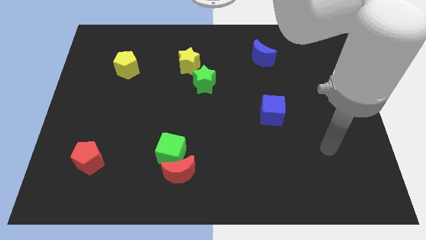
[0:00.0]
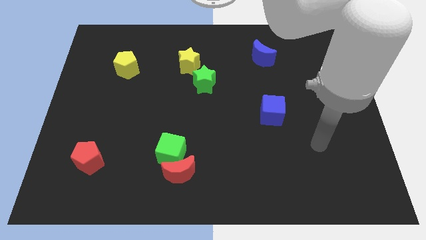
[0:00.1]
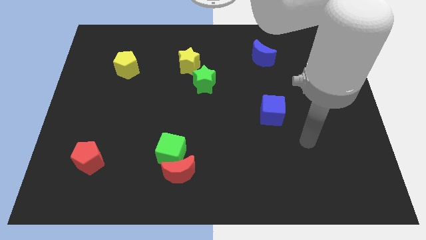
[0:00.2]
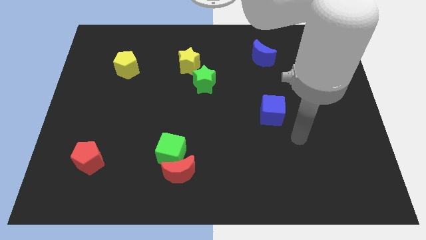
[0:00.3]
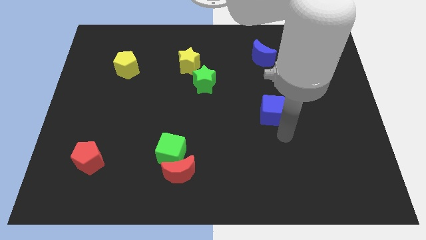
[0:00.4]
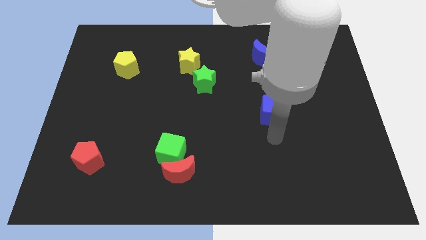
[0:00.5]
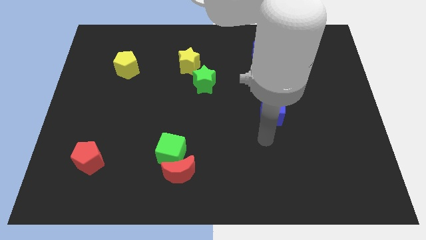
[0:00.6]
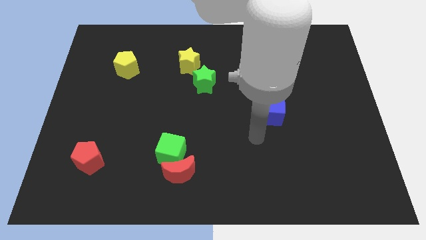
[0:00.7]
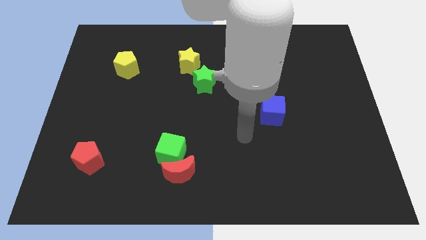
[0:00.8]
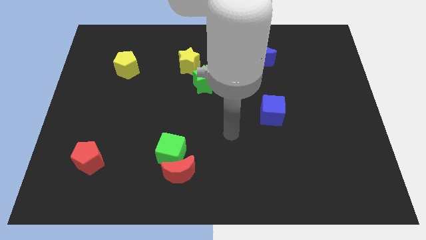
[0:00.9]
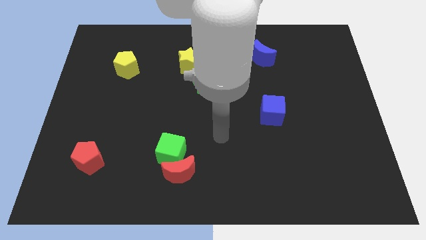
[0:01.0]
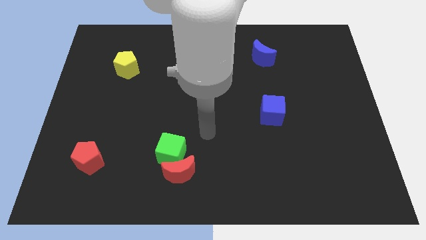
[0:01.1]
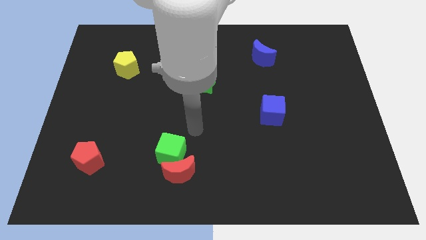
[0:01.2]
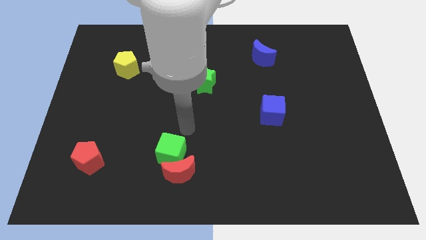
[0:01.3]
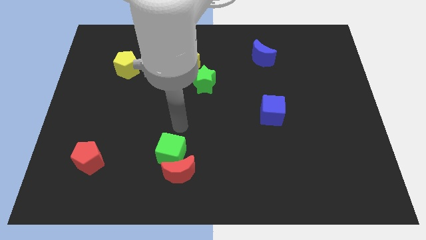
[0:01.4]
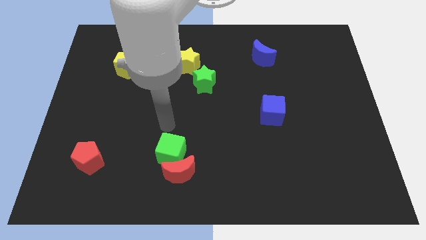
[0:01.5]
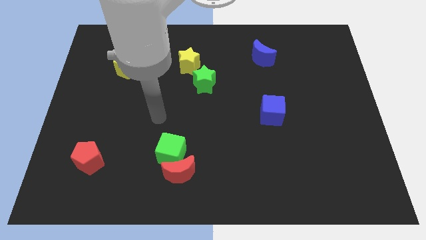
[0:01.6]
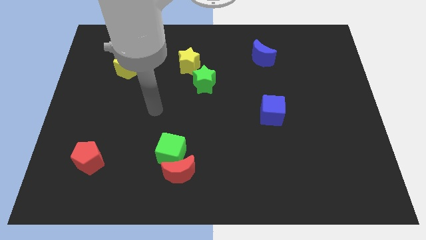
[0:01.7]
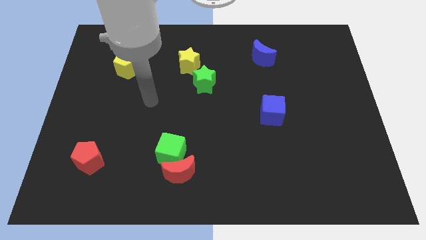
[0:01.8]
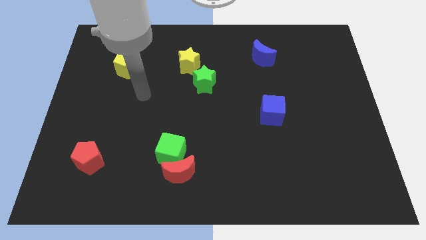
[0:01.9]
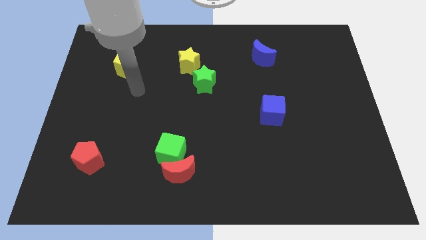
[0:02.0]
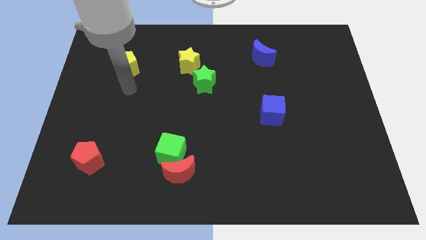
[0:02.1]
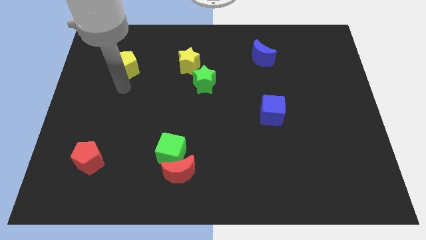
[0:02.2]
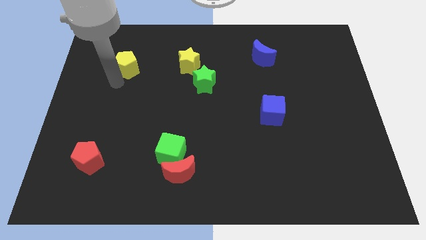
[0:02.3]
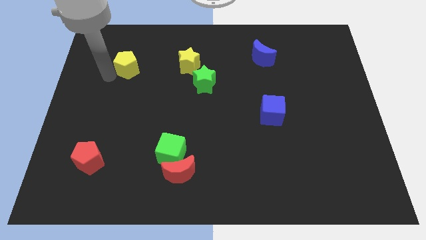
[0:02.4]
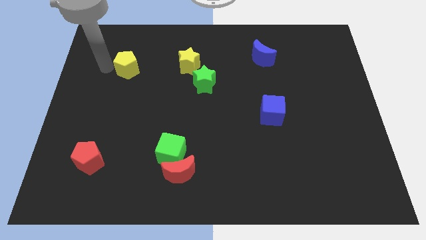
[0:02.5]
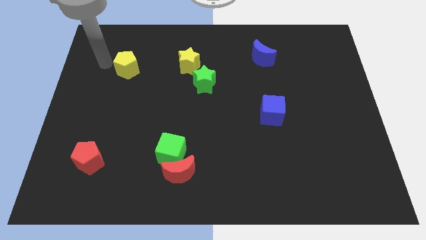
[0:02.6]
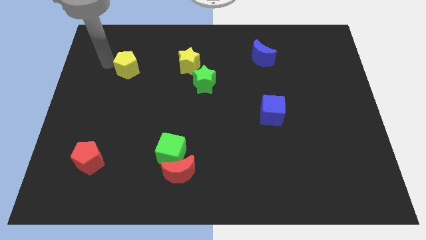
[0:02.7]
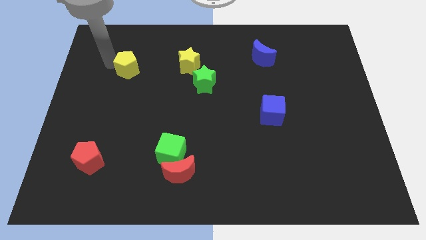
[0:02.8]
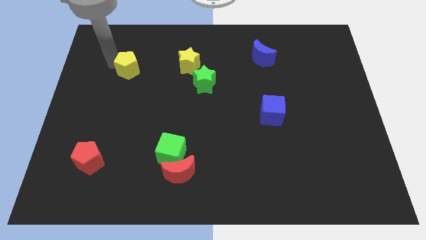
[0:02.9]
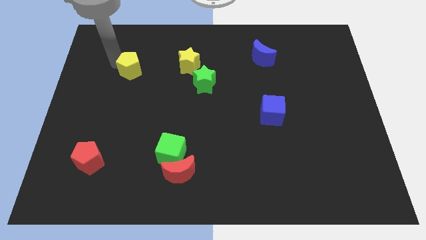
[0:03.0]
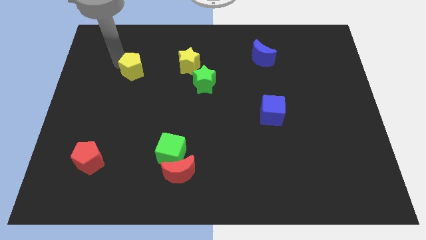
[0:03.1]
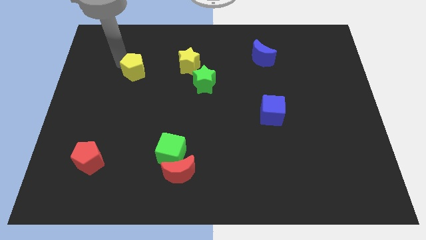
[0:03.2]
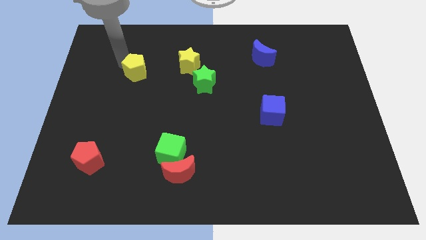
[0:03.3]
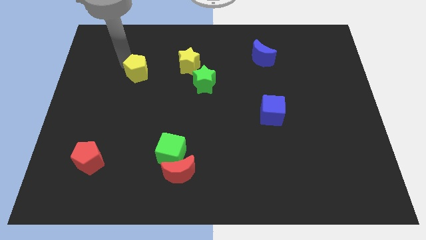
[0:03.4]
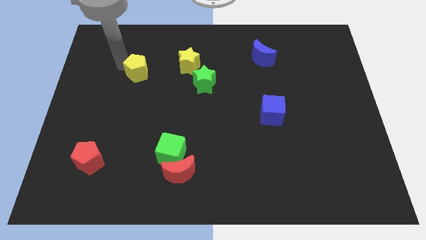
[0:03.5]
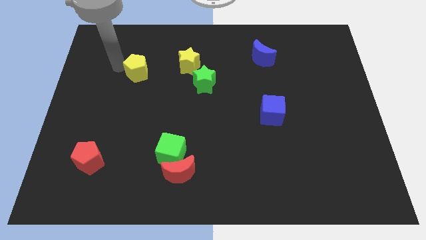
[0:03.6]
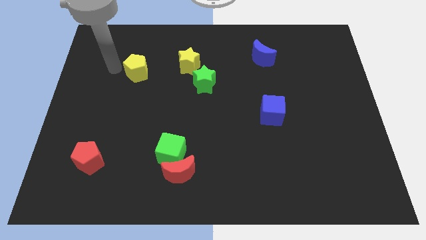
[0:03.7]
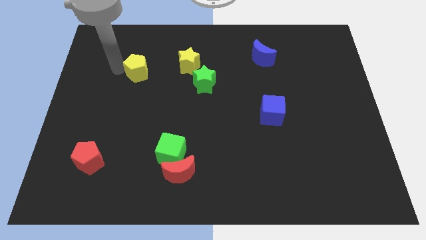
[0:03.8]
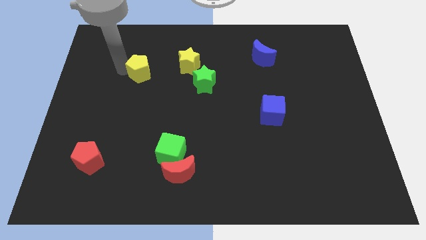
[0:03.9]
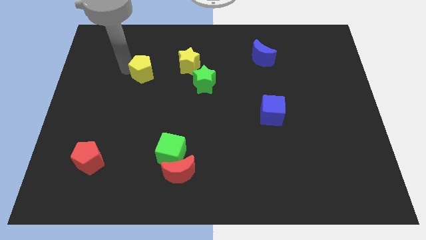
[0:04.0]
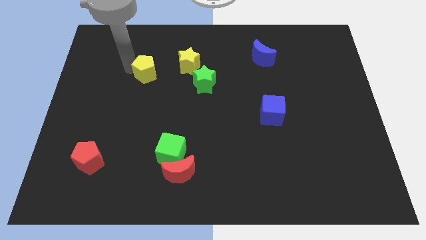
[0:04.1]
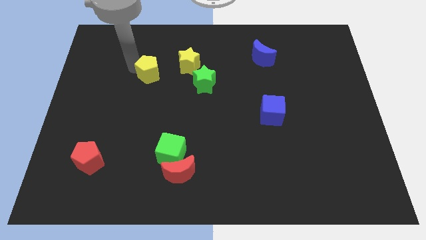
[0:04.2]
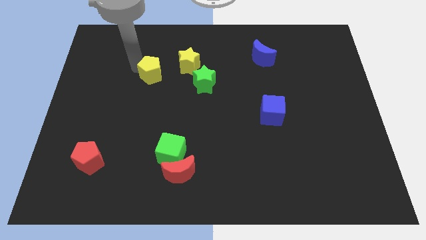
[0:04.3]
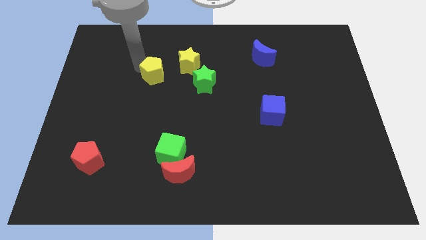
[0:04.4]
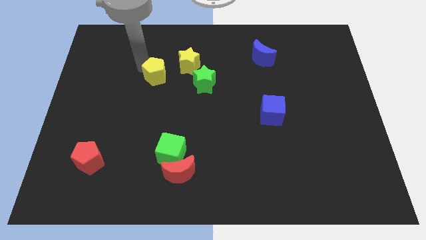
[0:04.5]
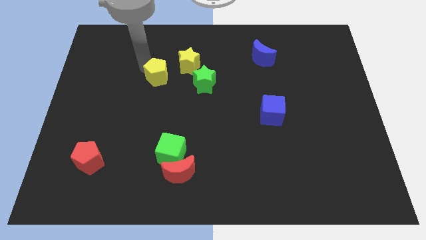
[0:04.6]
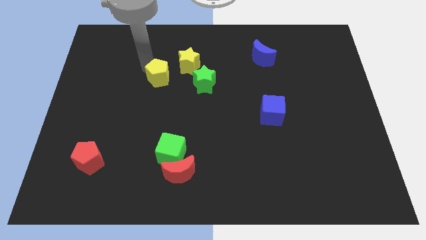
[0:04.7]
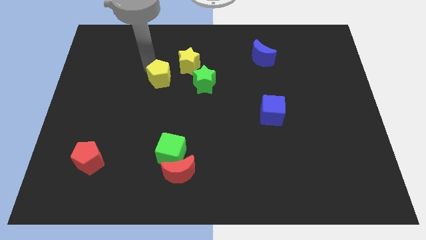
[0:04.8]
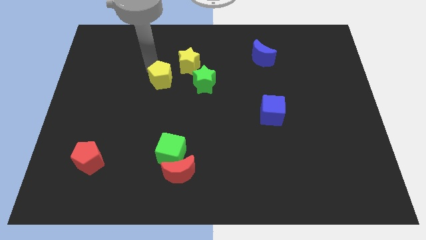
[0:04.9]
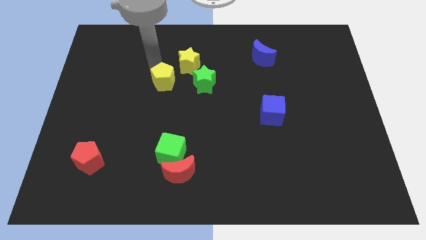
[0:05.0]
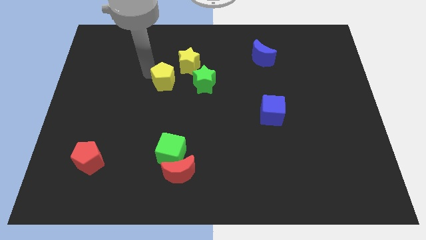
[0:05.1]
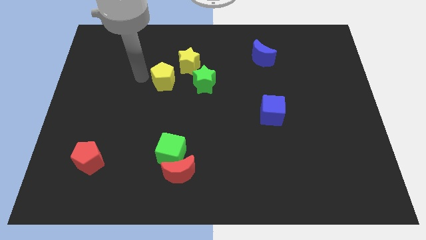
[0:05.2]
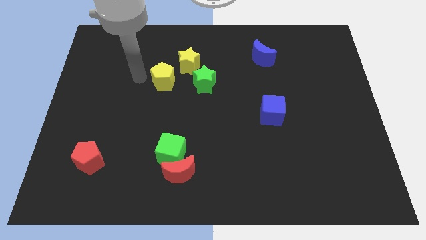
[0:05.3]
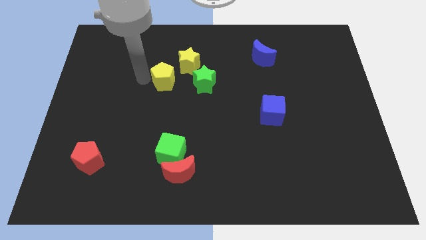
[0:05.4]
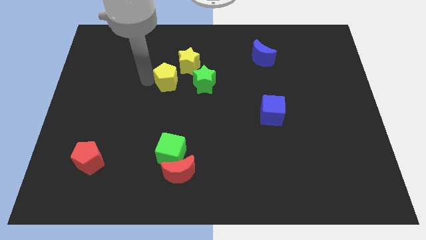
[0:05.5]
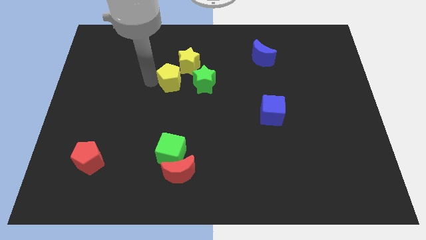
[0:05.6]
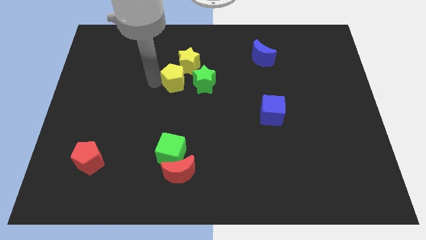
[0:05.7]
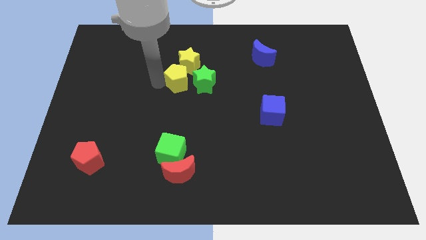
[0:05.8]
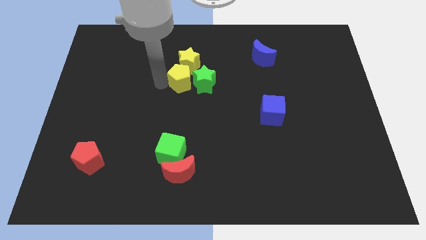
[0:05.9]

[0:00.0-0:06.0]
push the yellow pentagon next to the green star
